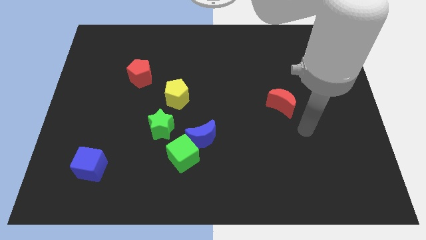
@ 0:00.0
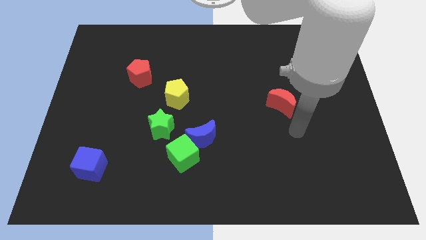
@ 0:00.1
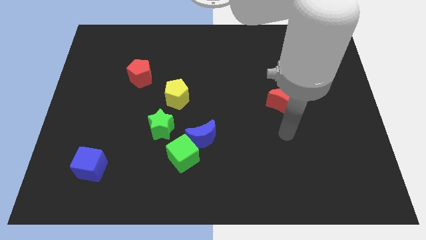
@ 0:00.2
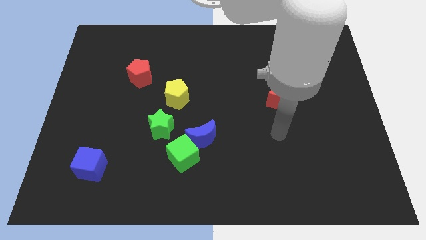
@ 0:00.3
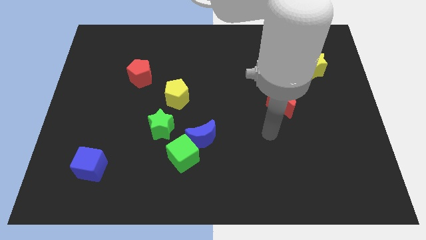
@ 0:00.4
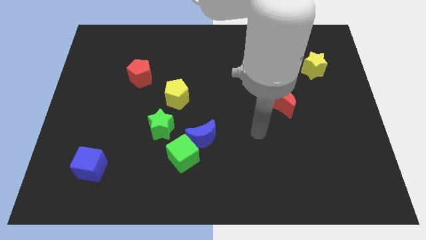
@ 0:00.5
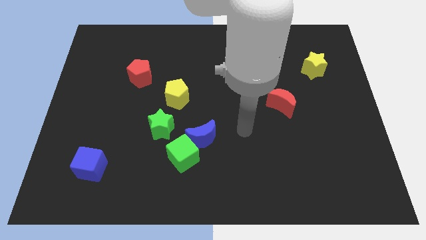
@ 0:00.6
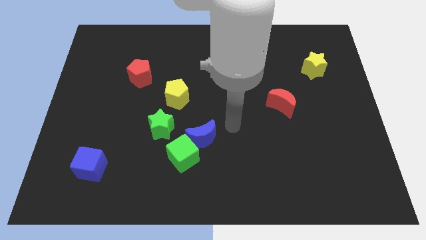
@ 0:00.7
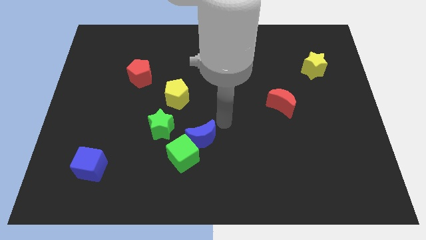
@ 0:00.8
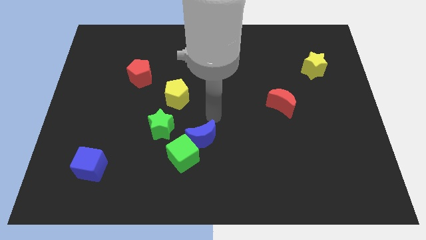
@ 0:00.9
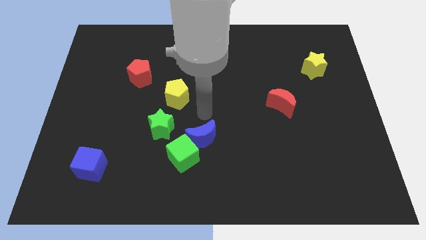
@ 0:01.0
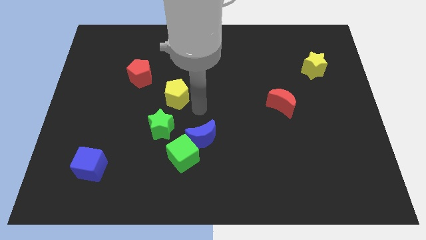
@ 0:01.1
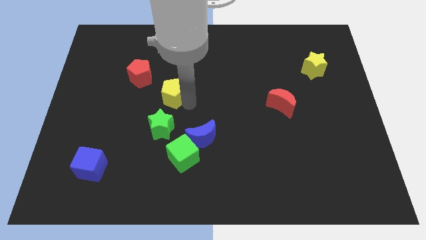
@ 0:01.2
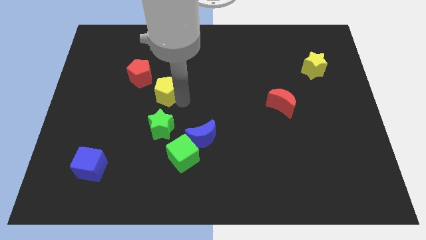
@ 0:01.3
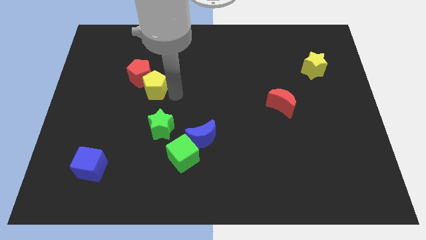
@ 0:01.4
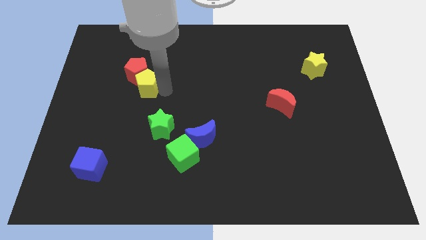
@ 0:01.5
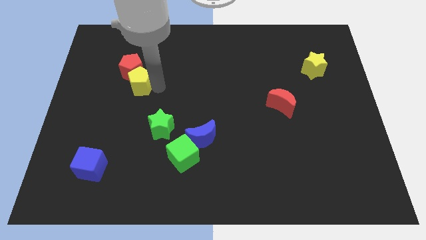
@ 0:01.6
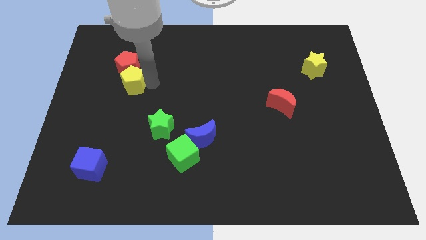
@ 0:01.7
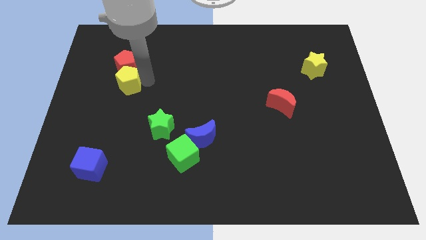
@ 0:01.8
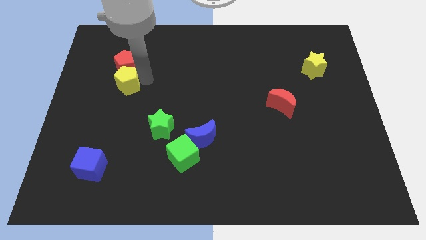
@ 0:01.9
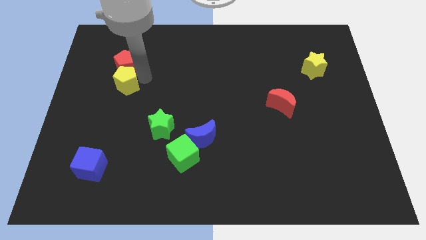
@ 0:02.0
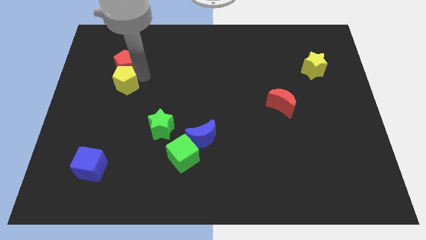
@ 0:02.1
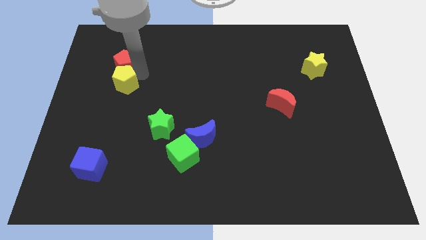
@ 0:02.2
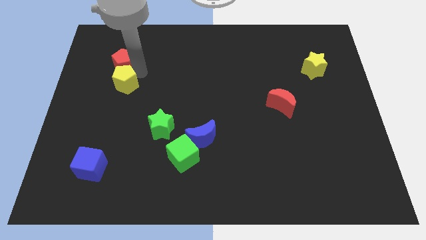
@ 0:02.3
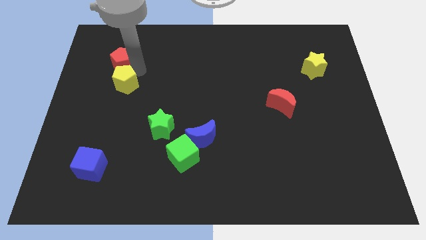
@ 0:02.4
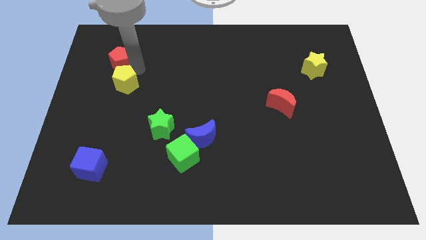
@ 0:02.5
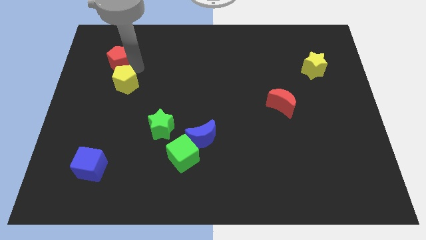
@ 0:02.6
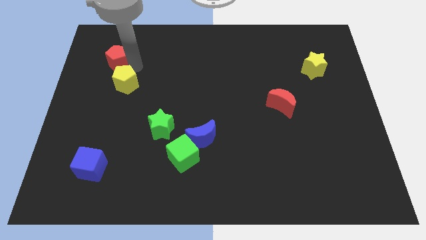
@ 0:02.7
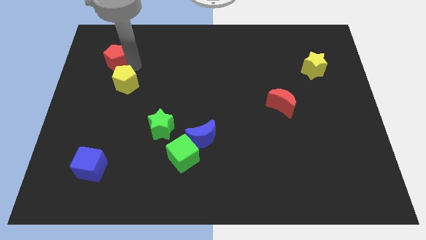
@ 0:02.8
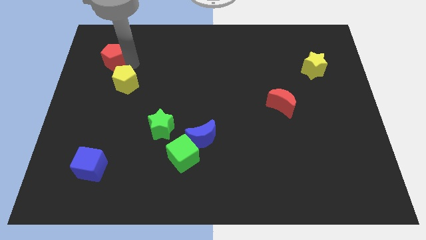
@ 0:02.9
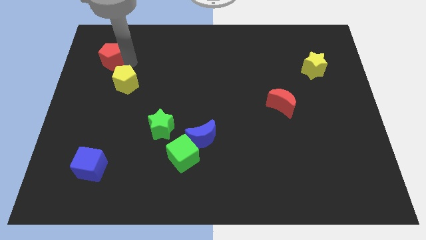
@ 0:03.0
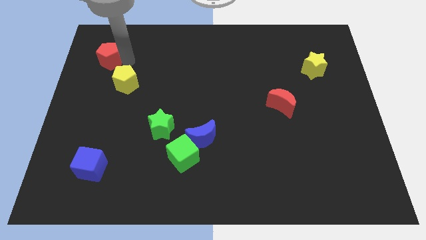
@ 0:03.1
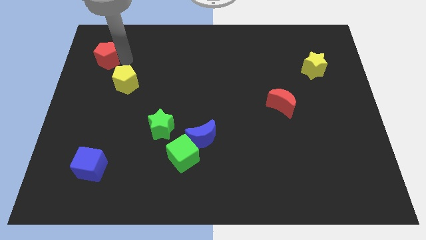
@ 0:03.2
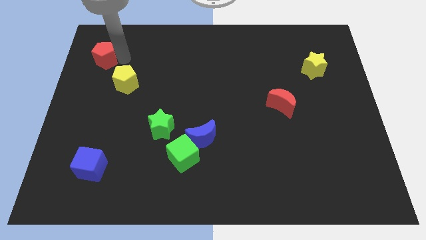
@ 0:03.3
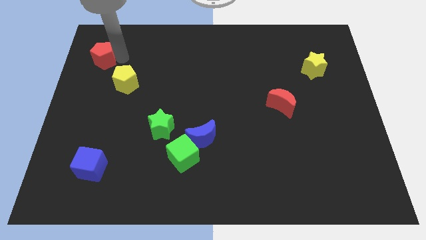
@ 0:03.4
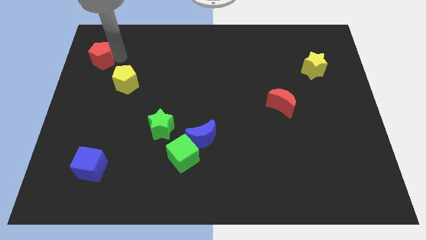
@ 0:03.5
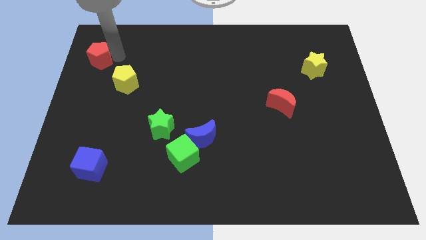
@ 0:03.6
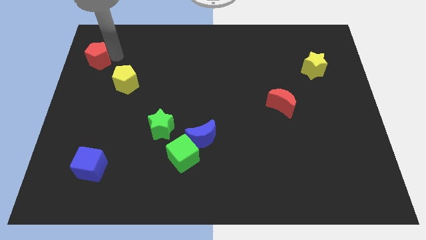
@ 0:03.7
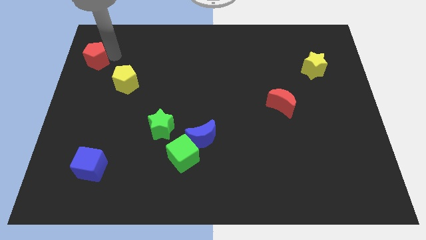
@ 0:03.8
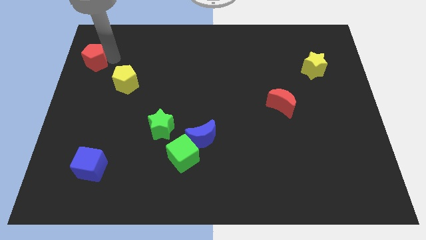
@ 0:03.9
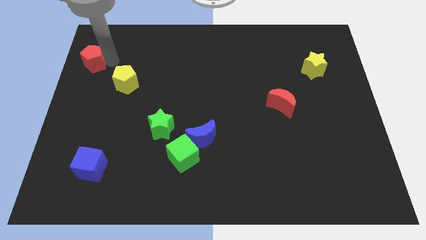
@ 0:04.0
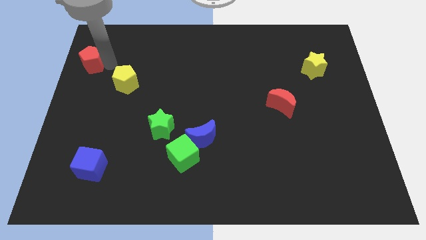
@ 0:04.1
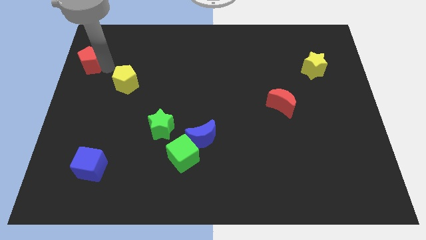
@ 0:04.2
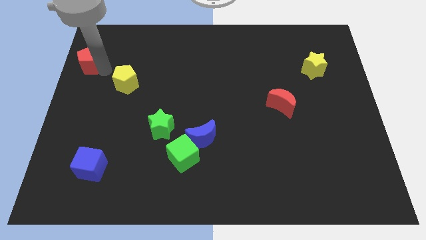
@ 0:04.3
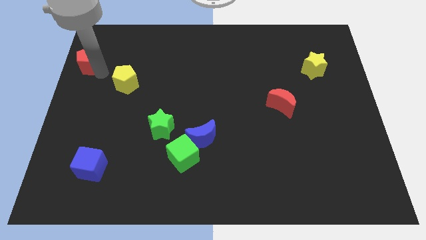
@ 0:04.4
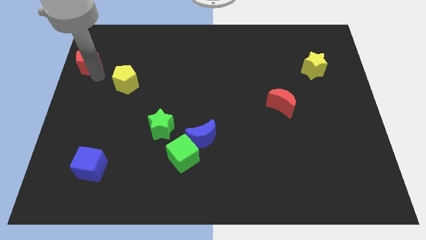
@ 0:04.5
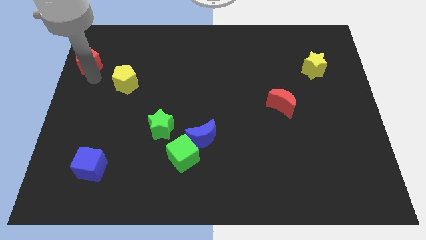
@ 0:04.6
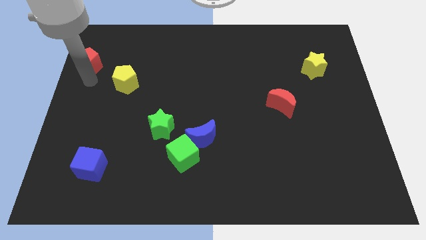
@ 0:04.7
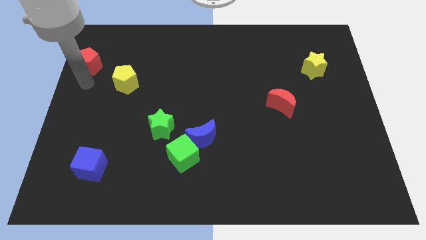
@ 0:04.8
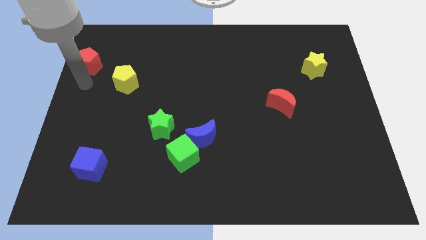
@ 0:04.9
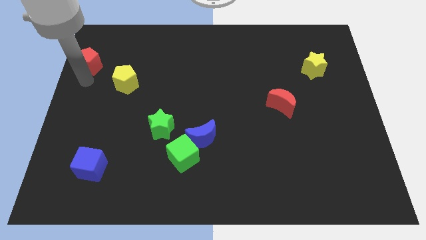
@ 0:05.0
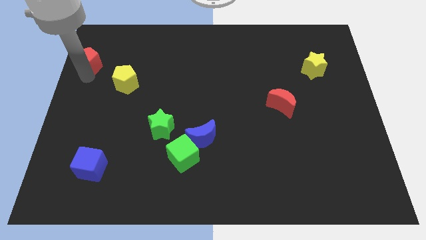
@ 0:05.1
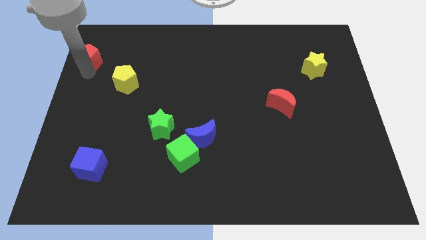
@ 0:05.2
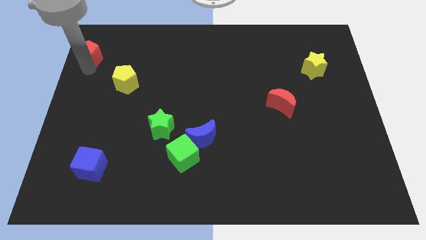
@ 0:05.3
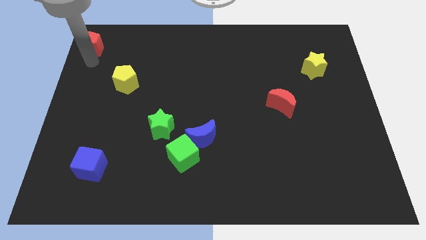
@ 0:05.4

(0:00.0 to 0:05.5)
push the red pentagon to the upper left corner
